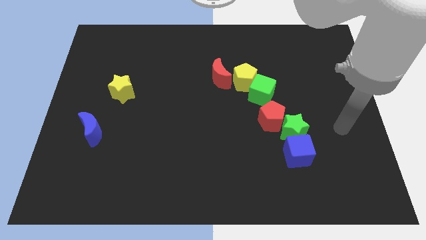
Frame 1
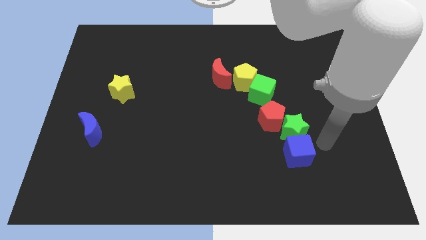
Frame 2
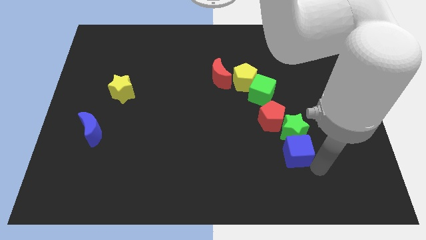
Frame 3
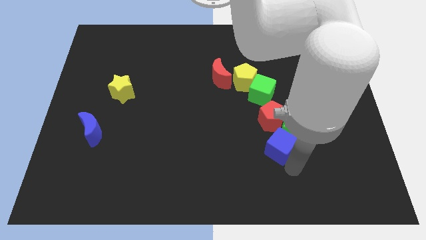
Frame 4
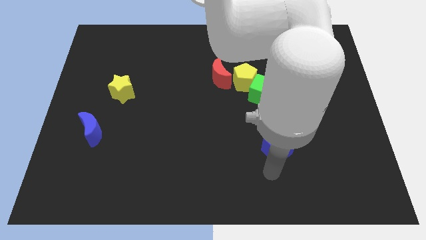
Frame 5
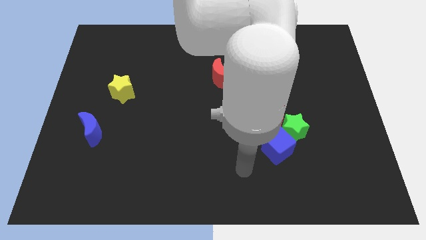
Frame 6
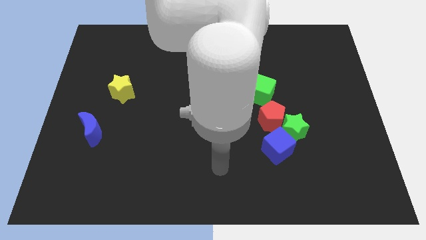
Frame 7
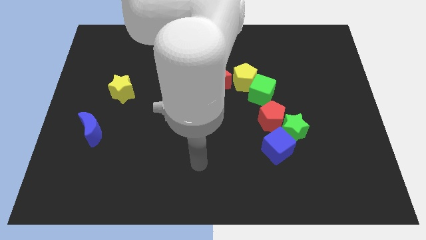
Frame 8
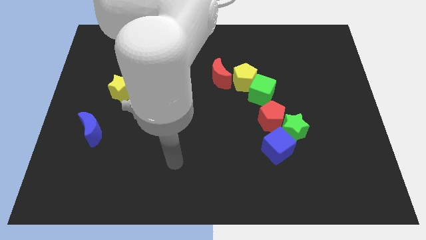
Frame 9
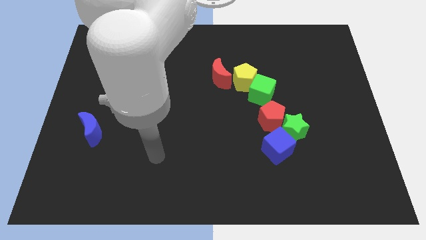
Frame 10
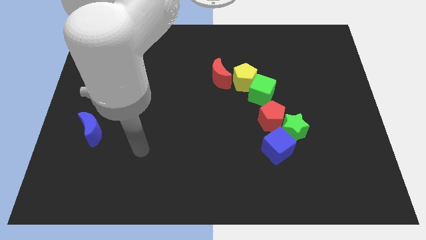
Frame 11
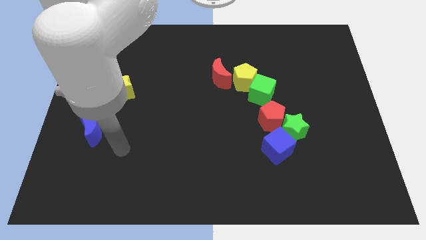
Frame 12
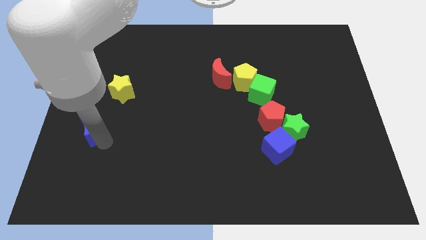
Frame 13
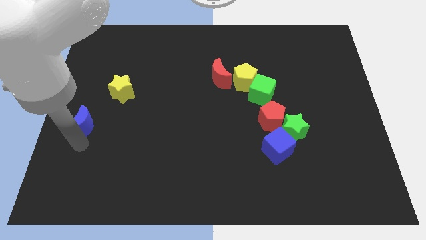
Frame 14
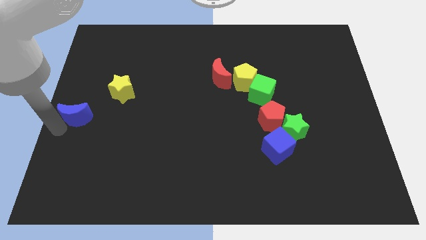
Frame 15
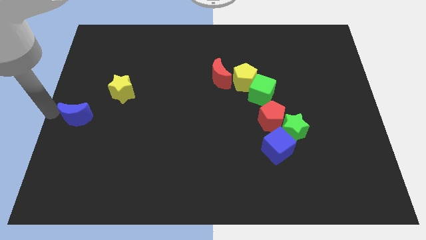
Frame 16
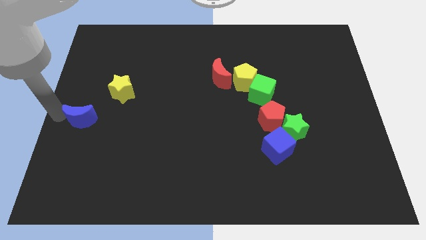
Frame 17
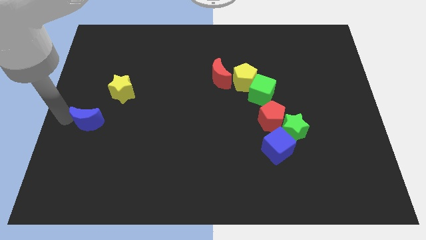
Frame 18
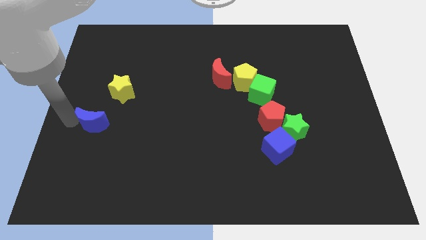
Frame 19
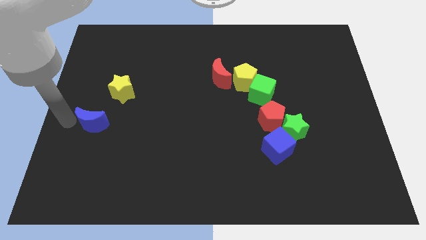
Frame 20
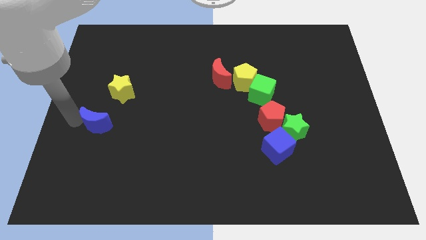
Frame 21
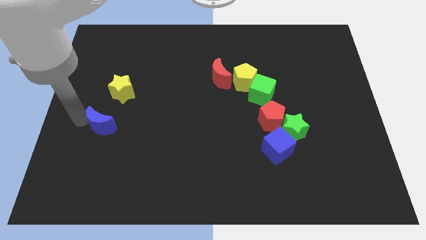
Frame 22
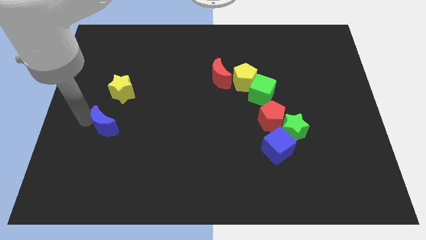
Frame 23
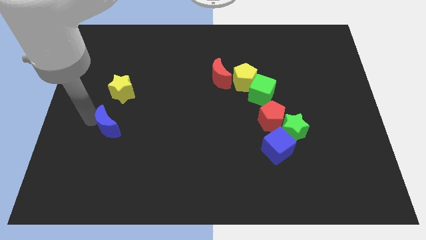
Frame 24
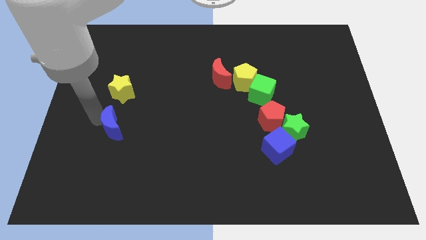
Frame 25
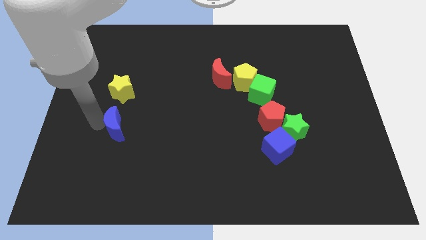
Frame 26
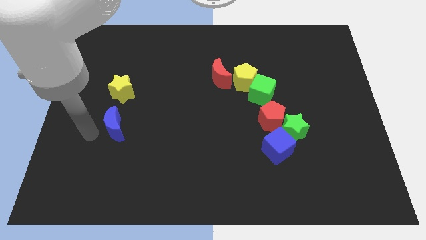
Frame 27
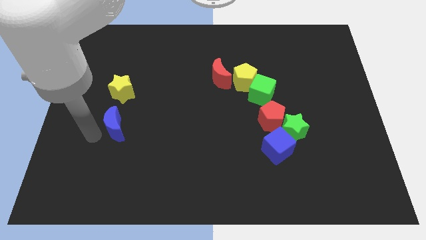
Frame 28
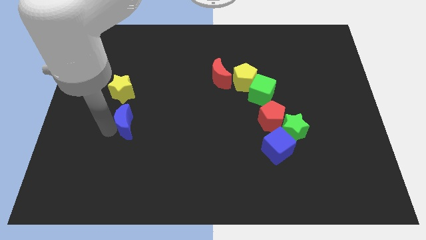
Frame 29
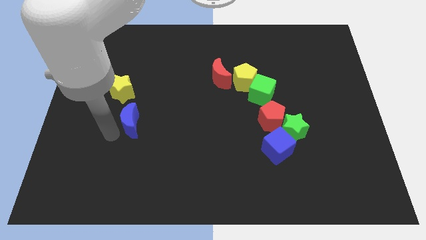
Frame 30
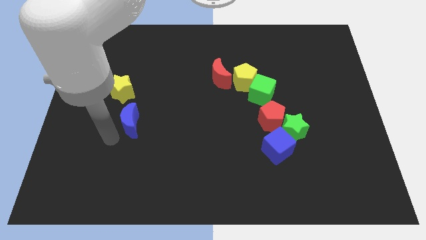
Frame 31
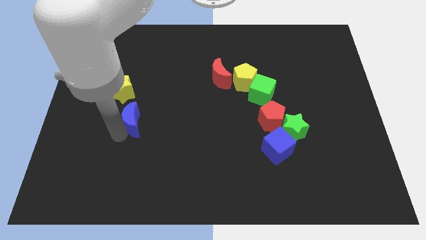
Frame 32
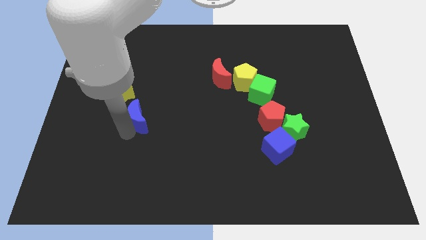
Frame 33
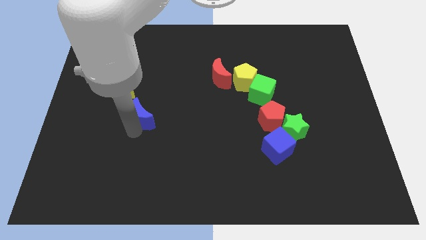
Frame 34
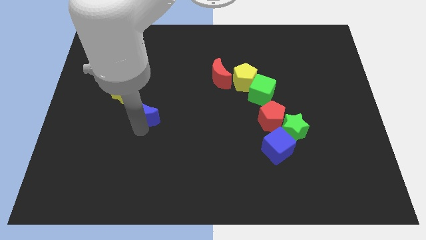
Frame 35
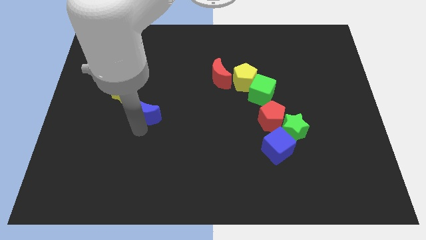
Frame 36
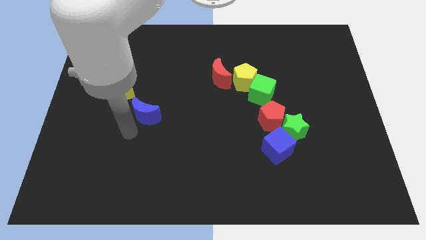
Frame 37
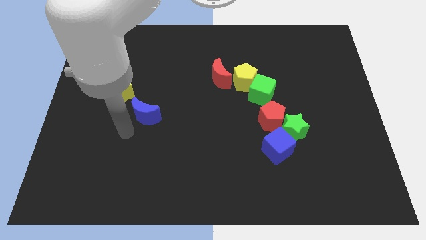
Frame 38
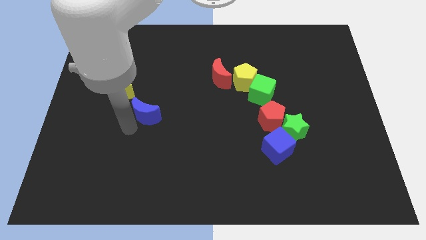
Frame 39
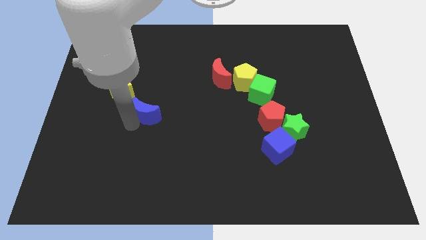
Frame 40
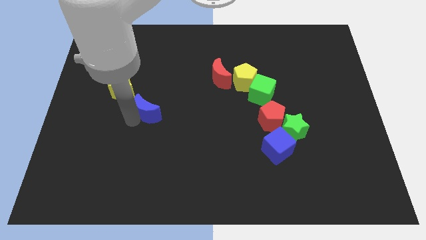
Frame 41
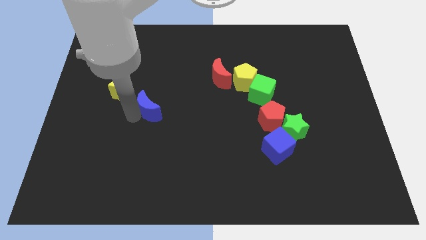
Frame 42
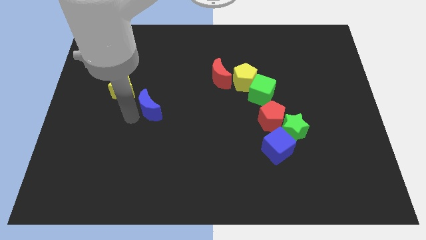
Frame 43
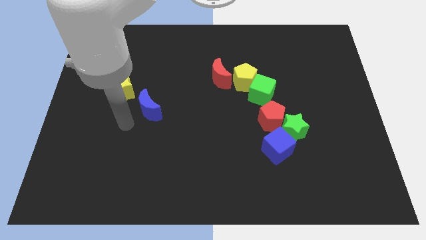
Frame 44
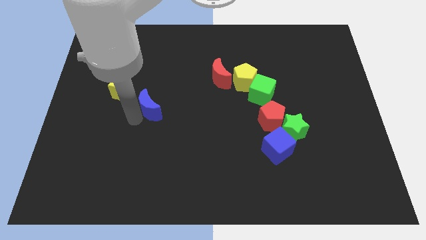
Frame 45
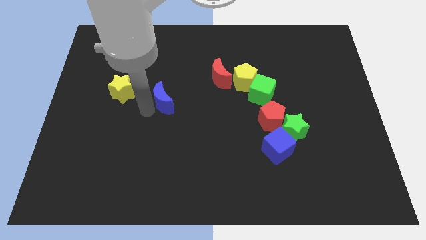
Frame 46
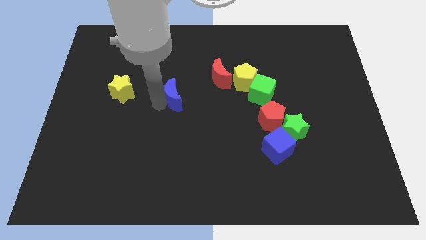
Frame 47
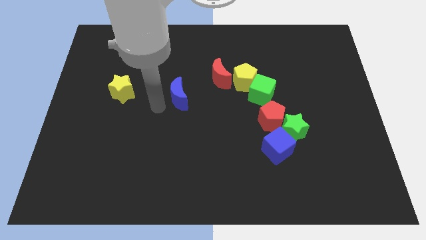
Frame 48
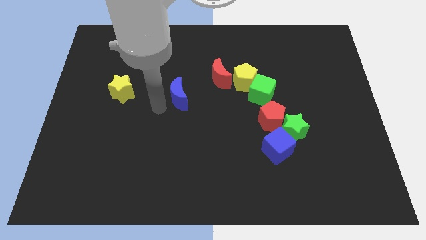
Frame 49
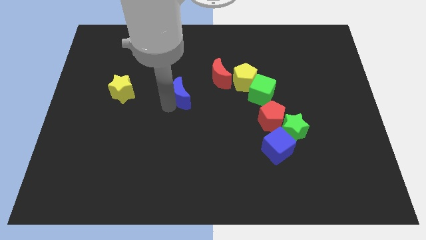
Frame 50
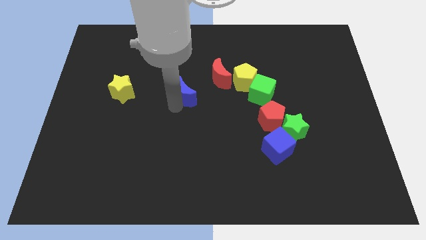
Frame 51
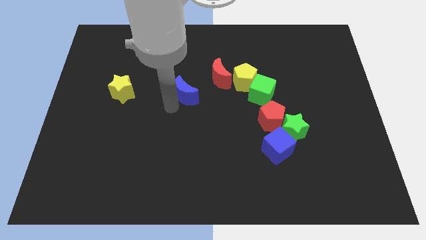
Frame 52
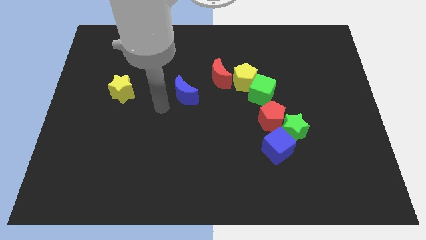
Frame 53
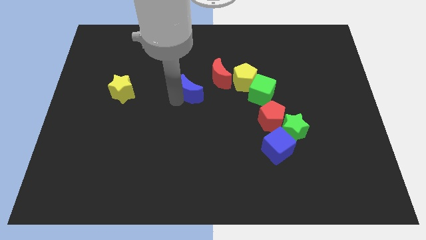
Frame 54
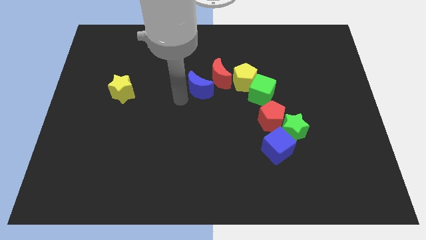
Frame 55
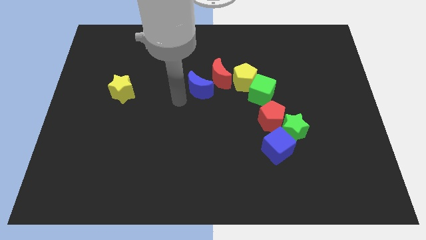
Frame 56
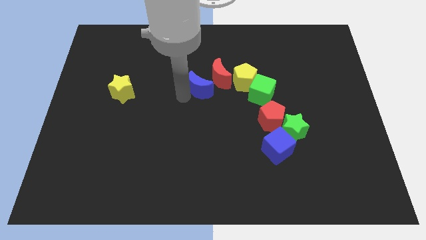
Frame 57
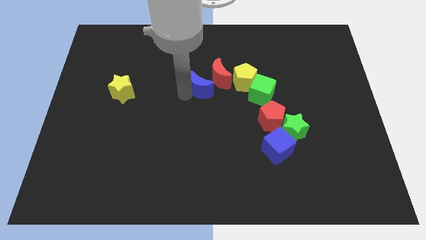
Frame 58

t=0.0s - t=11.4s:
move the blue moon to the red moon

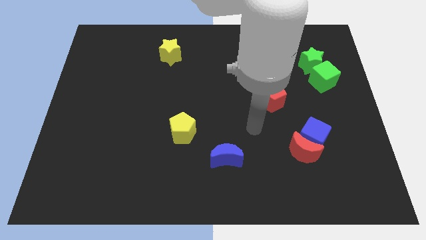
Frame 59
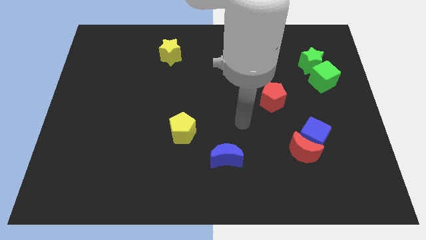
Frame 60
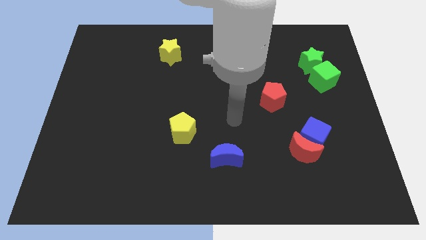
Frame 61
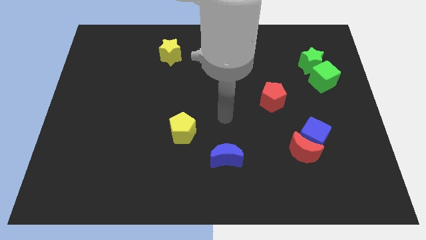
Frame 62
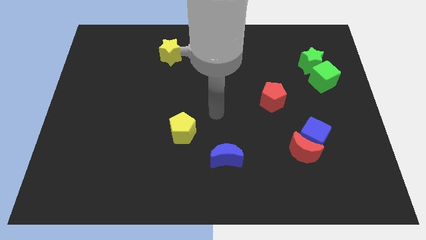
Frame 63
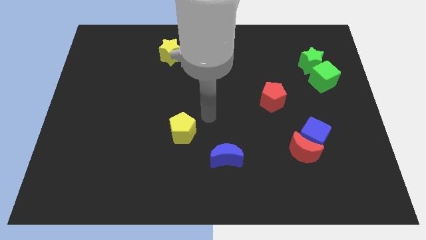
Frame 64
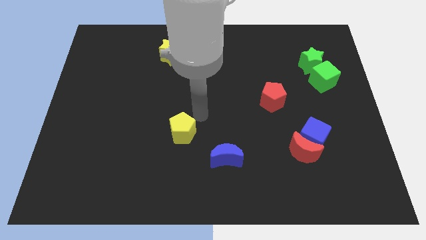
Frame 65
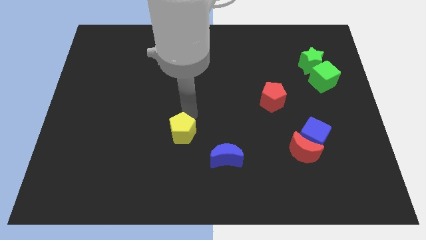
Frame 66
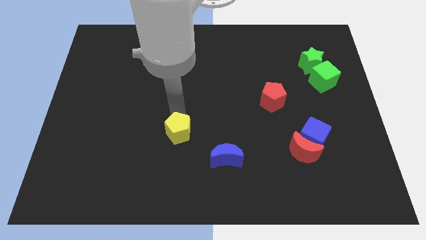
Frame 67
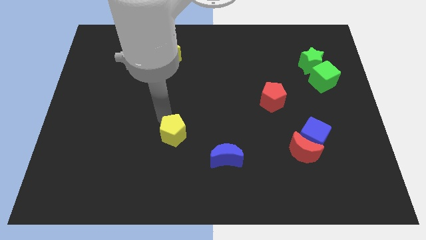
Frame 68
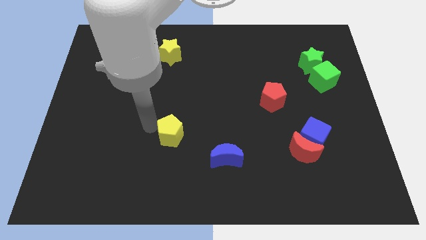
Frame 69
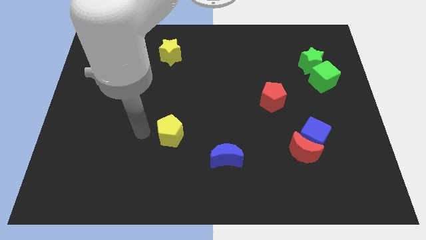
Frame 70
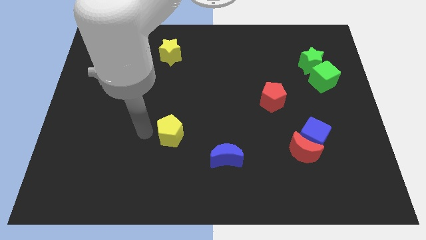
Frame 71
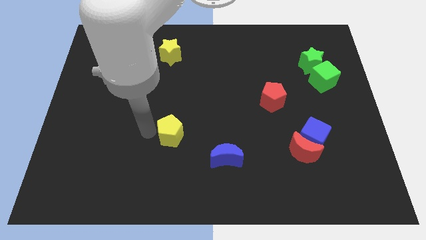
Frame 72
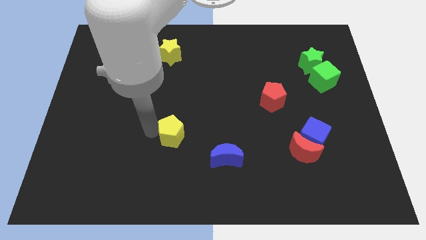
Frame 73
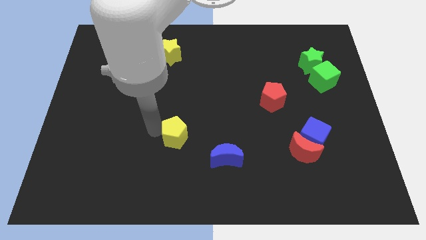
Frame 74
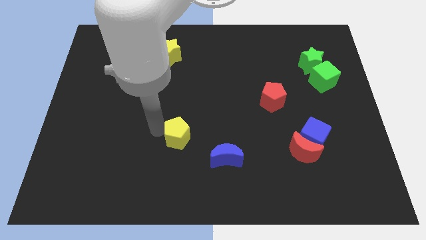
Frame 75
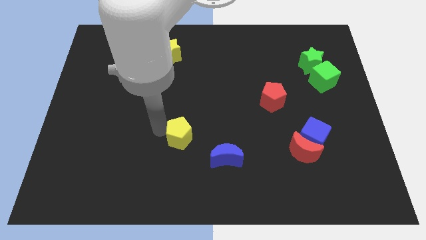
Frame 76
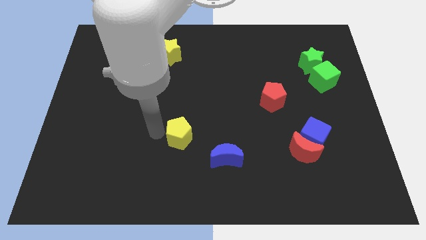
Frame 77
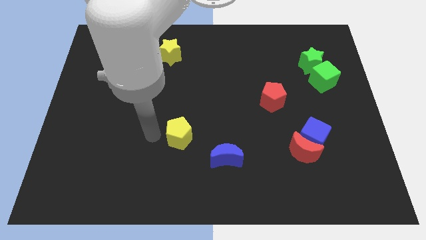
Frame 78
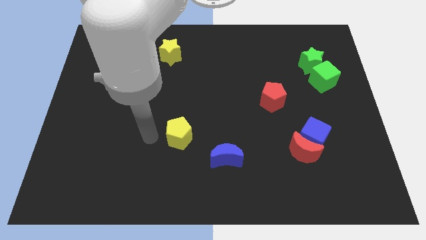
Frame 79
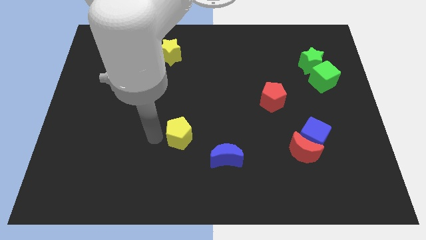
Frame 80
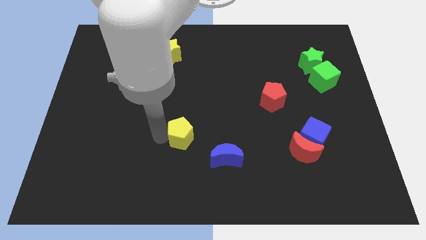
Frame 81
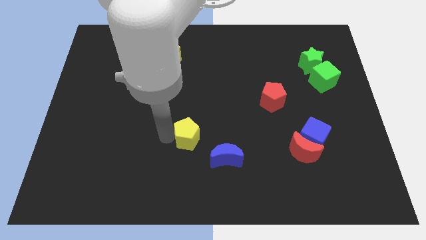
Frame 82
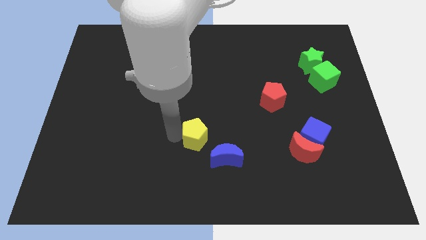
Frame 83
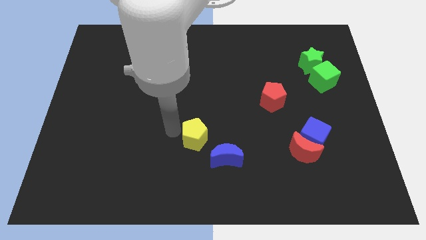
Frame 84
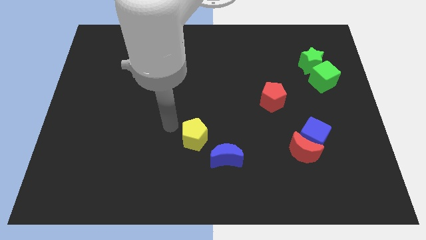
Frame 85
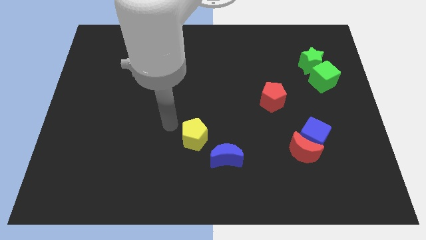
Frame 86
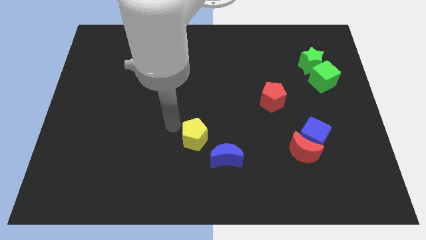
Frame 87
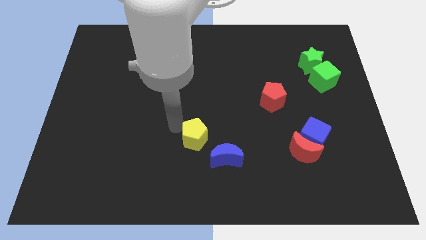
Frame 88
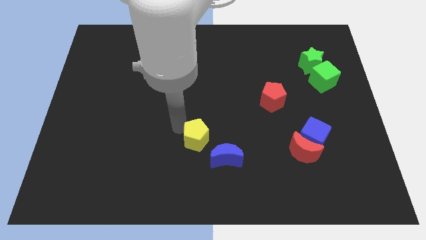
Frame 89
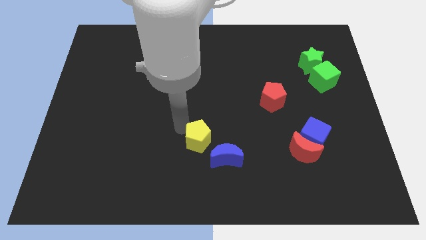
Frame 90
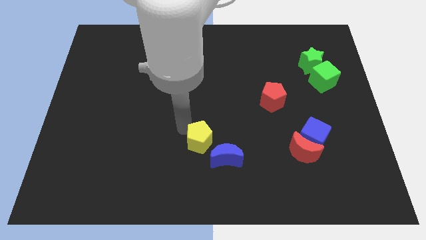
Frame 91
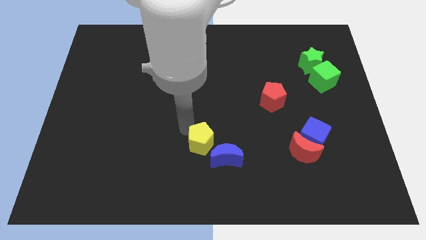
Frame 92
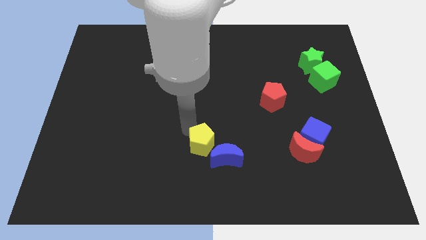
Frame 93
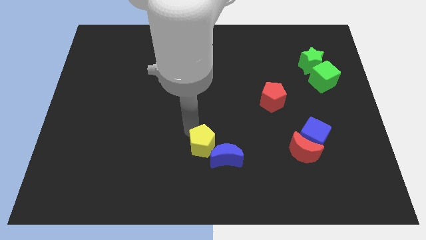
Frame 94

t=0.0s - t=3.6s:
move the yellow pentagon towards the blue moon
